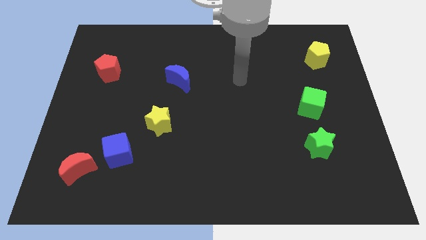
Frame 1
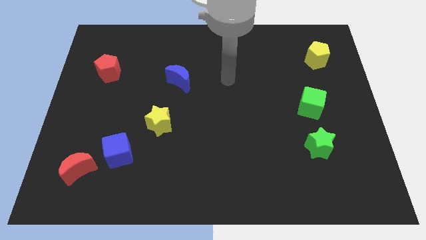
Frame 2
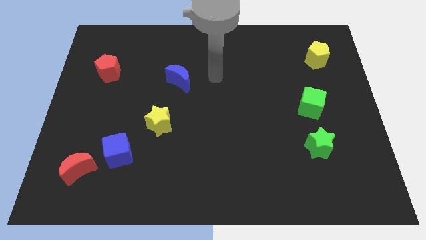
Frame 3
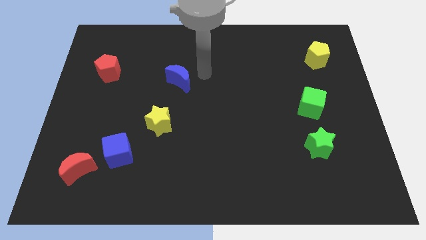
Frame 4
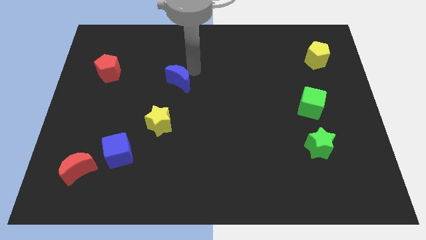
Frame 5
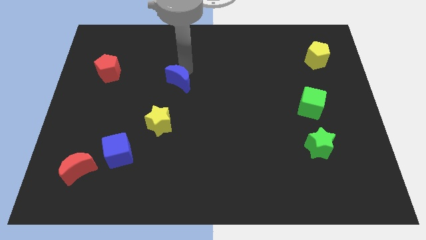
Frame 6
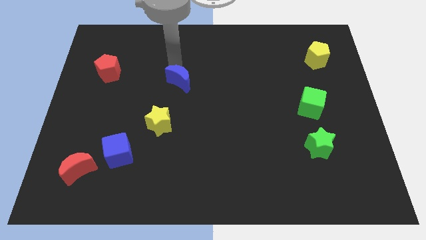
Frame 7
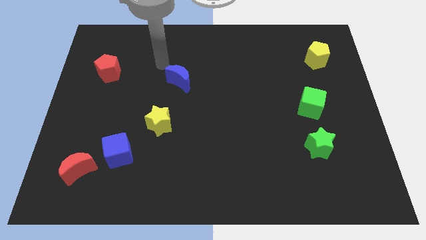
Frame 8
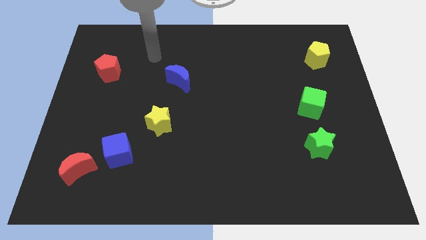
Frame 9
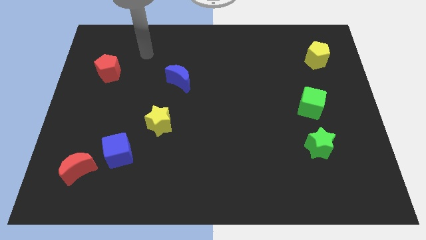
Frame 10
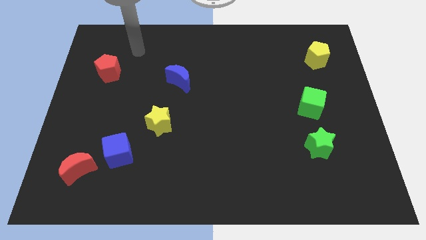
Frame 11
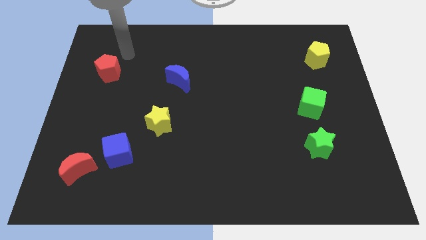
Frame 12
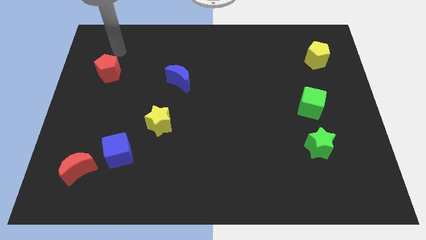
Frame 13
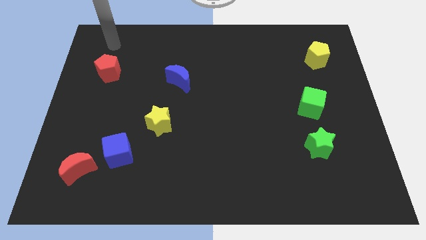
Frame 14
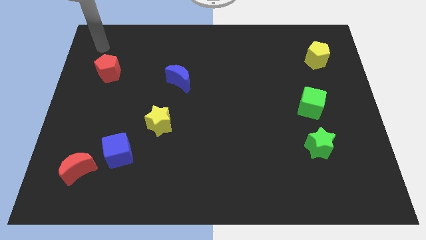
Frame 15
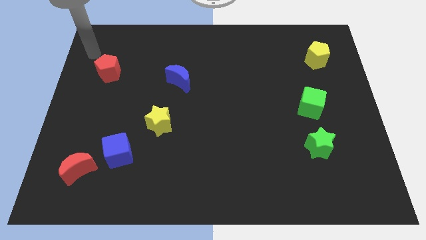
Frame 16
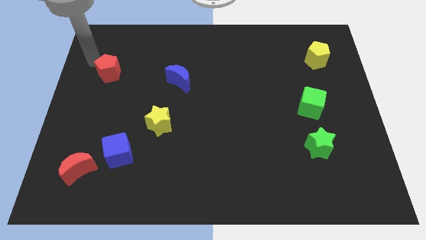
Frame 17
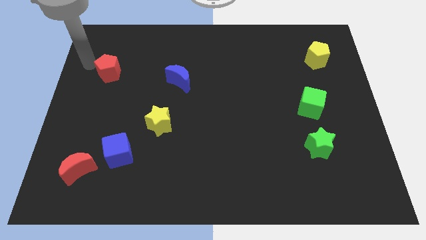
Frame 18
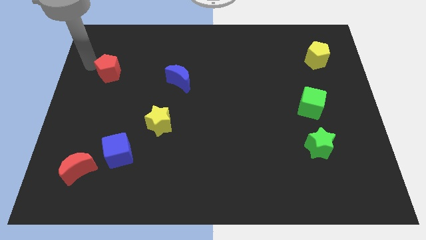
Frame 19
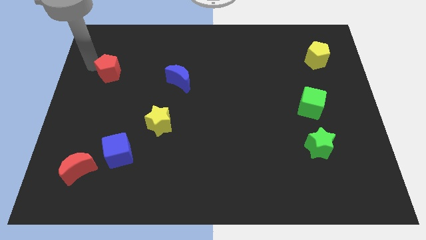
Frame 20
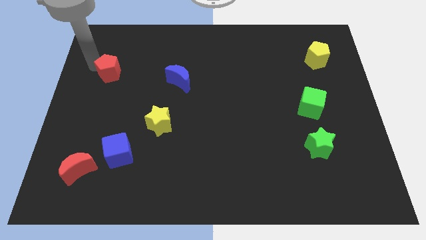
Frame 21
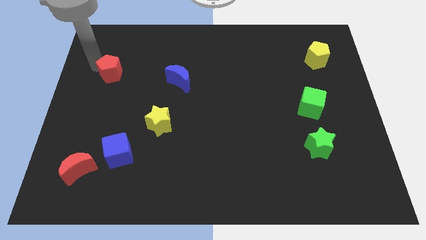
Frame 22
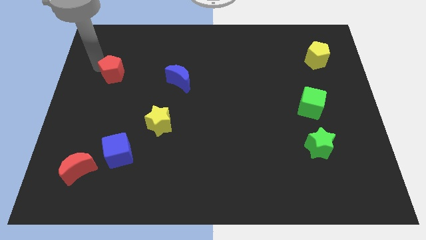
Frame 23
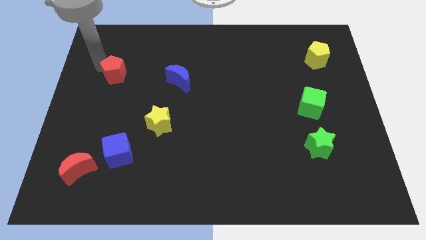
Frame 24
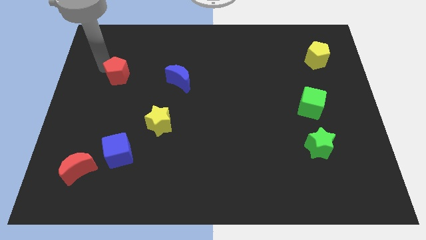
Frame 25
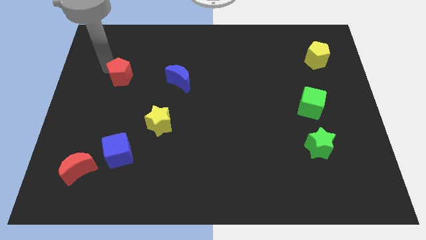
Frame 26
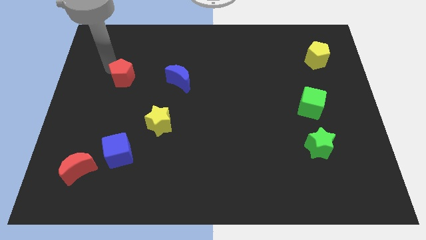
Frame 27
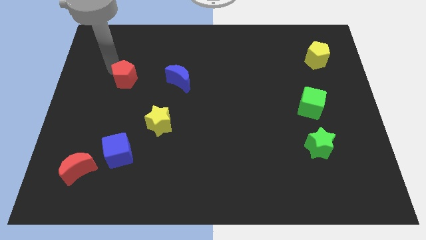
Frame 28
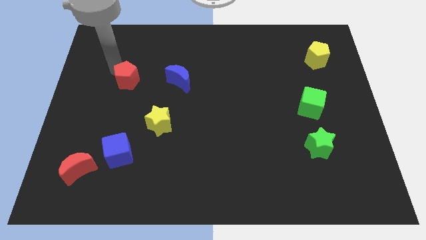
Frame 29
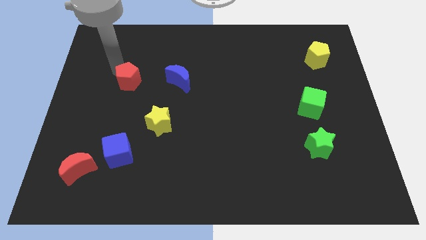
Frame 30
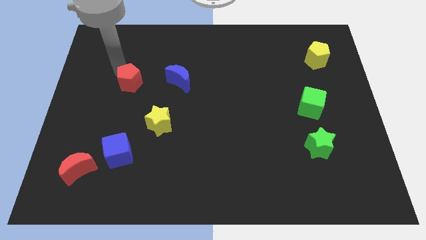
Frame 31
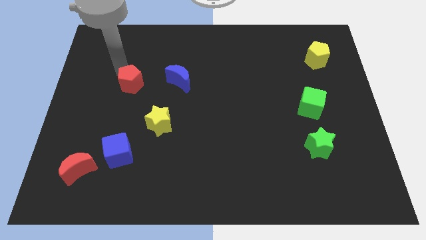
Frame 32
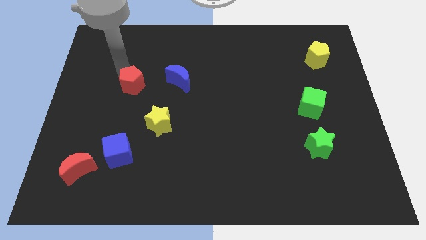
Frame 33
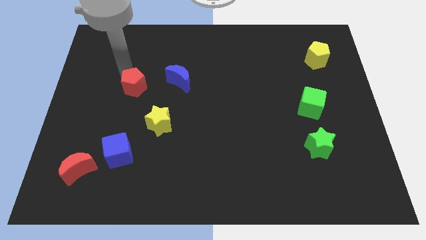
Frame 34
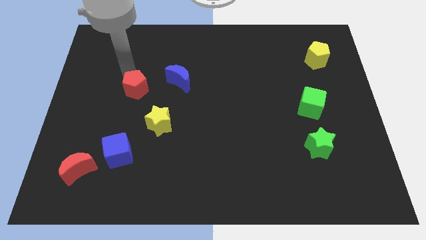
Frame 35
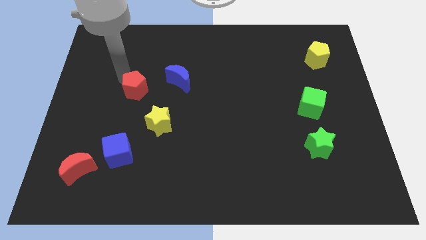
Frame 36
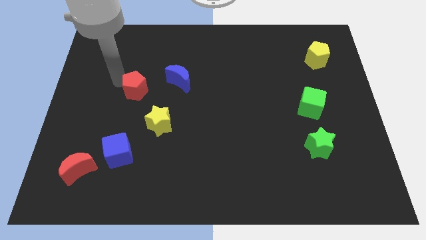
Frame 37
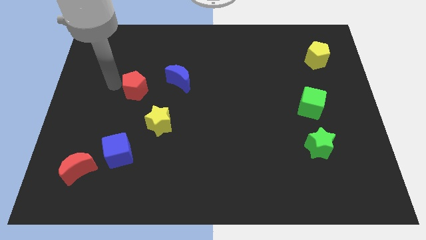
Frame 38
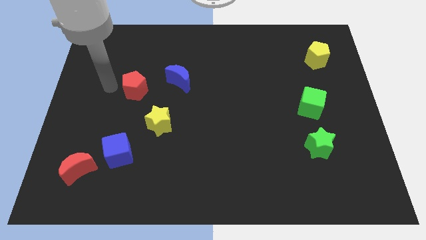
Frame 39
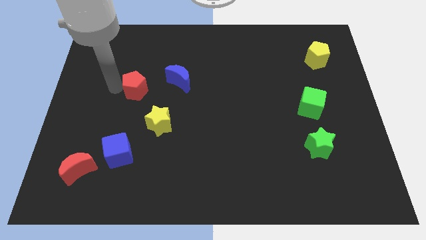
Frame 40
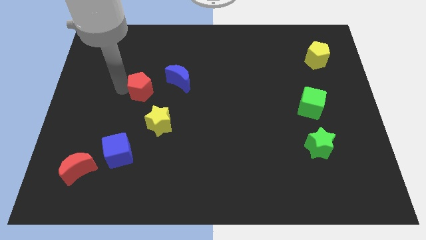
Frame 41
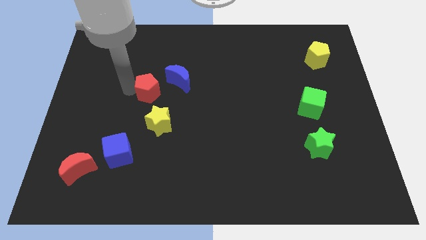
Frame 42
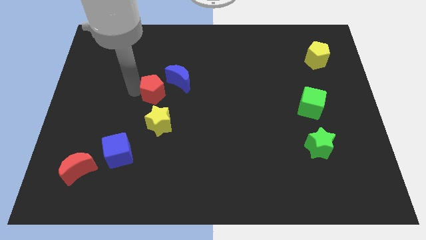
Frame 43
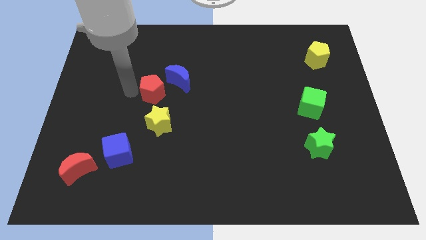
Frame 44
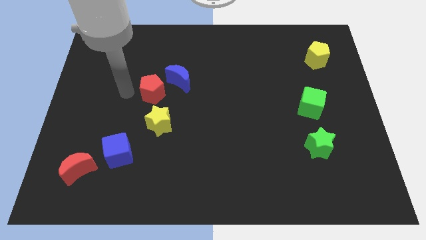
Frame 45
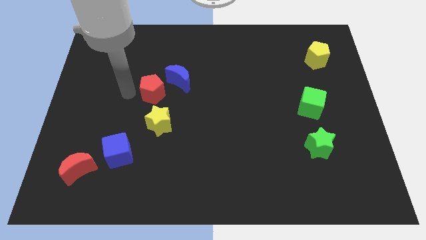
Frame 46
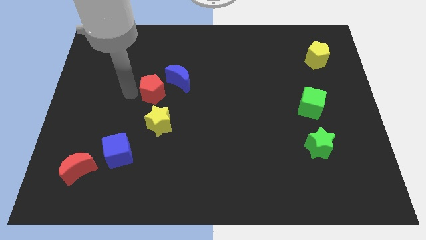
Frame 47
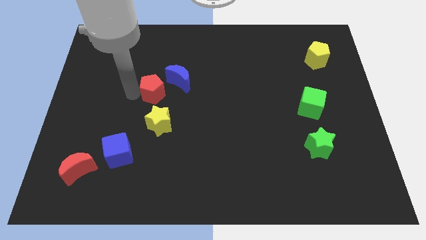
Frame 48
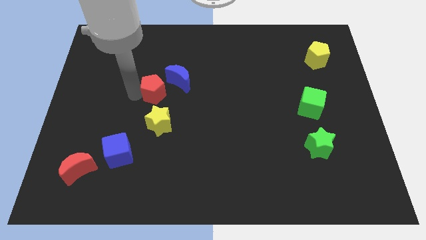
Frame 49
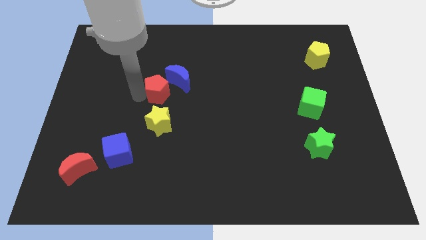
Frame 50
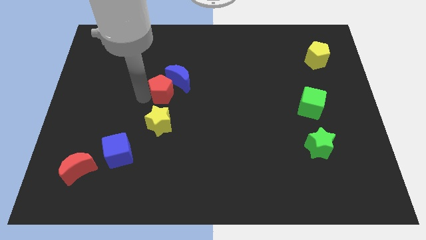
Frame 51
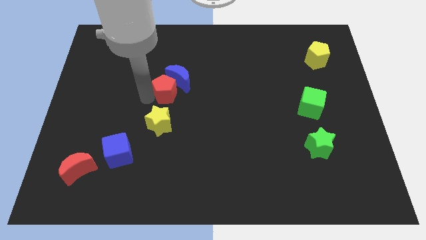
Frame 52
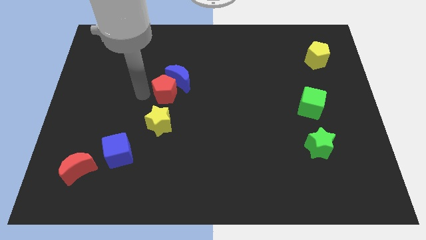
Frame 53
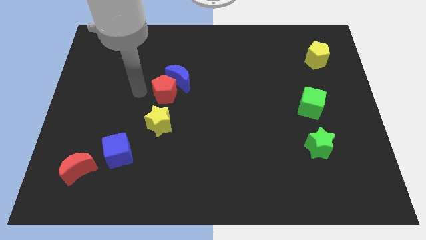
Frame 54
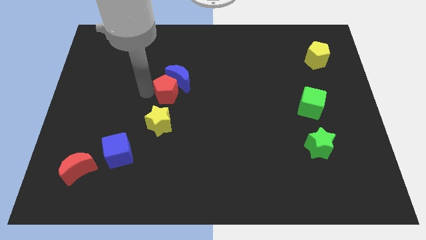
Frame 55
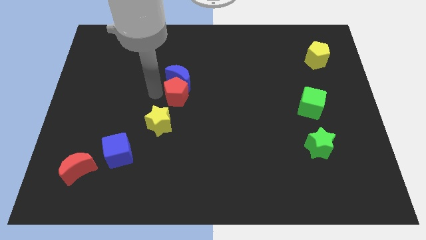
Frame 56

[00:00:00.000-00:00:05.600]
push the red pentagon to the bottom right side of the blue moon

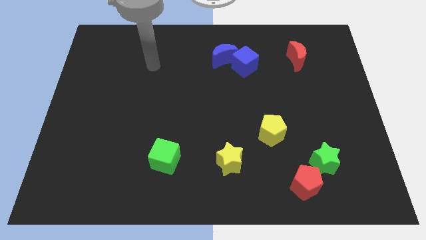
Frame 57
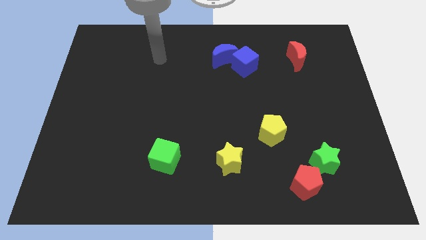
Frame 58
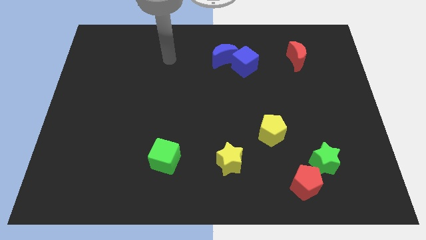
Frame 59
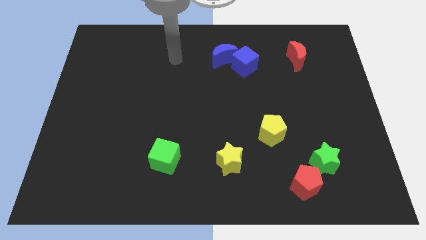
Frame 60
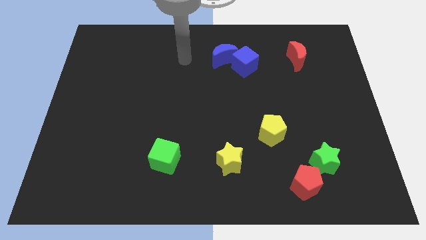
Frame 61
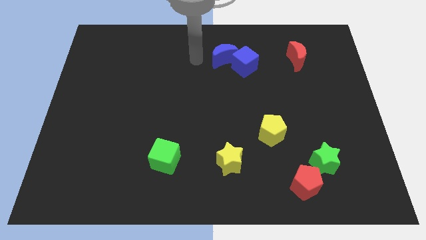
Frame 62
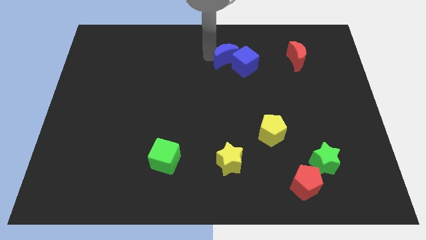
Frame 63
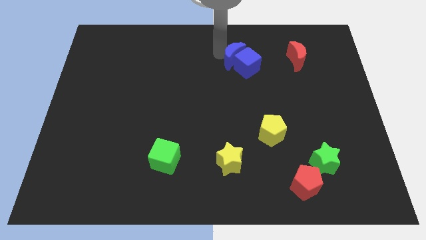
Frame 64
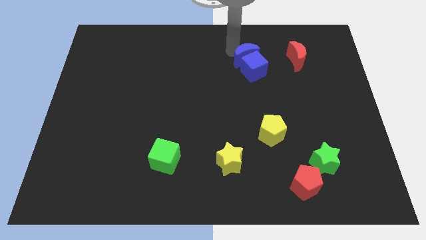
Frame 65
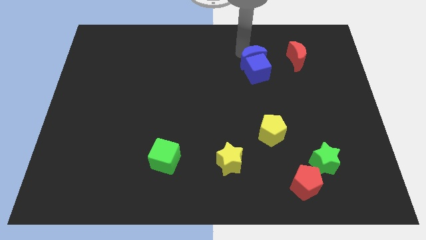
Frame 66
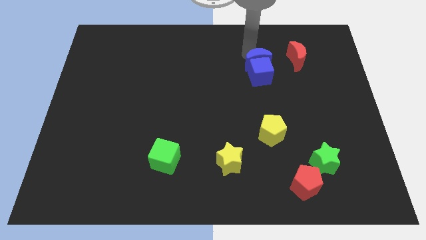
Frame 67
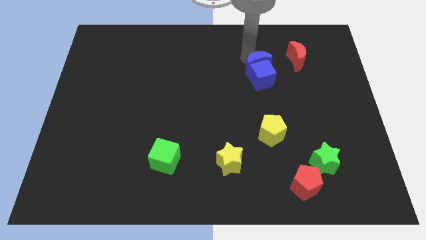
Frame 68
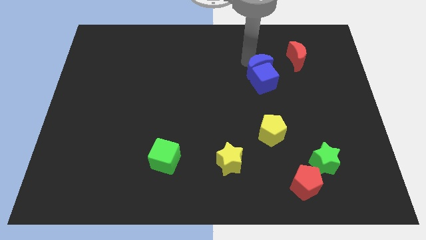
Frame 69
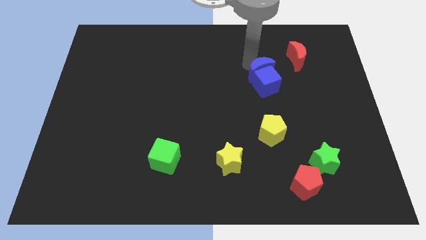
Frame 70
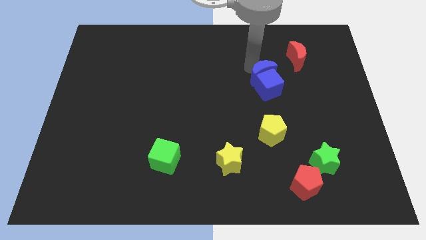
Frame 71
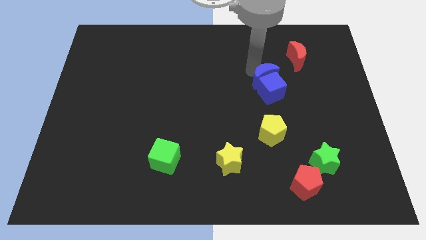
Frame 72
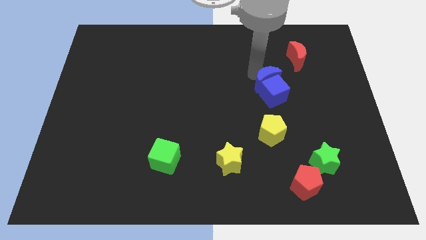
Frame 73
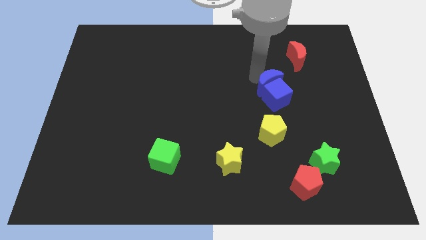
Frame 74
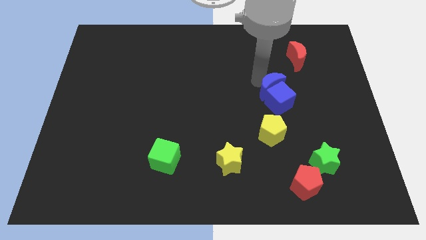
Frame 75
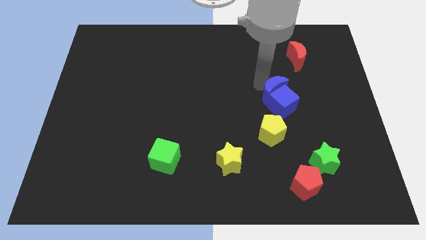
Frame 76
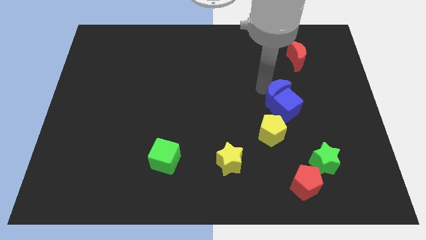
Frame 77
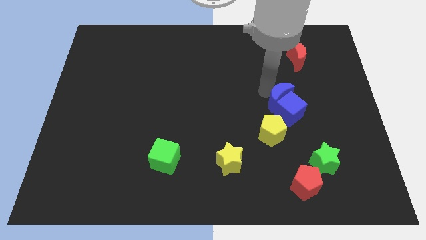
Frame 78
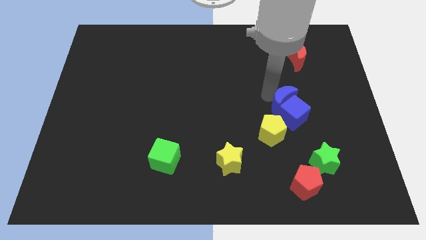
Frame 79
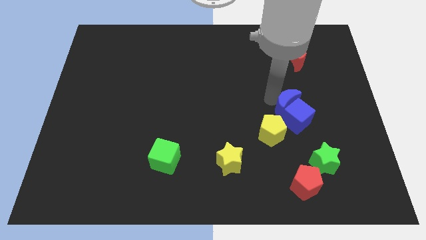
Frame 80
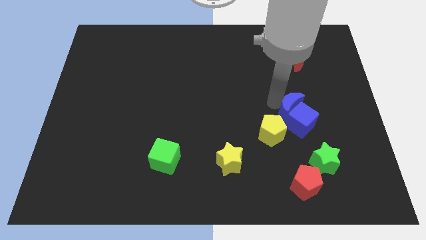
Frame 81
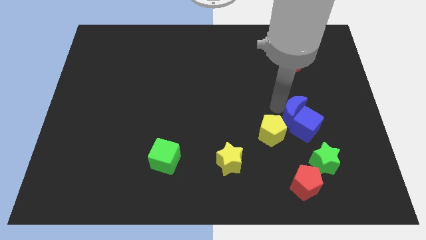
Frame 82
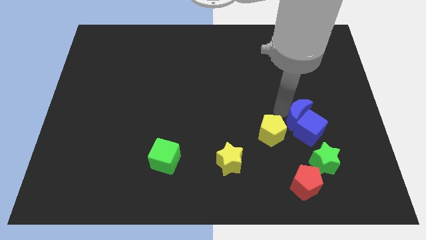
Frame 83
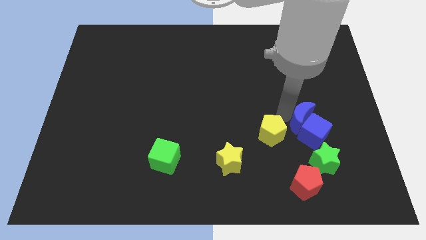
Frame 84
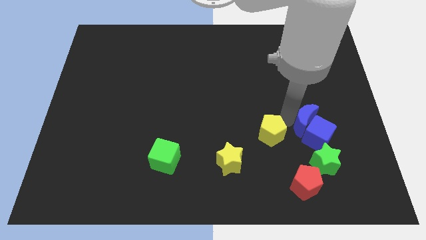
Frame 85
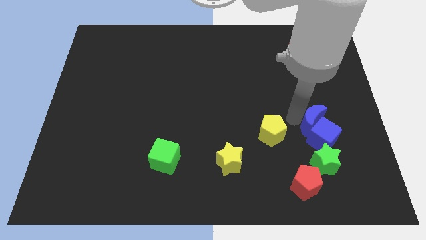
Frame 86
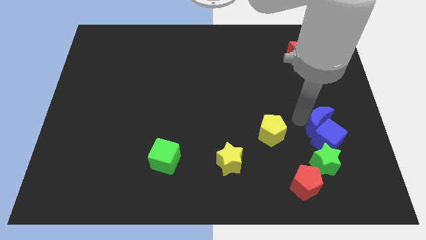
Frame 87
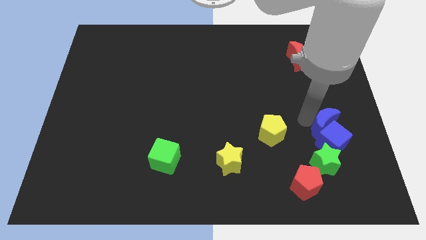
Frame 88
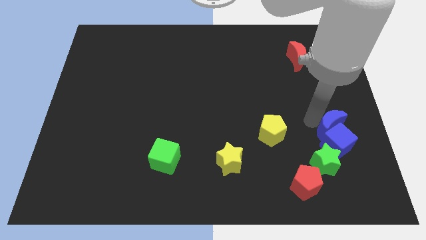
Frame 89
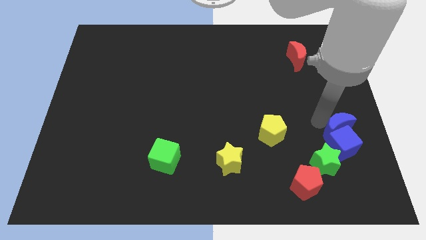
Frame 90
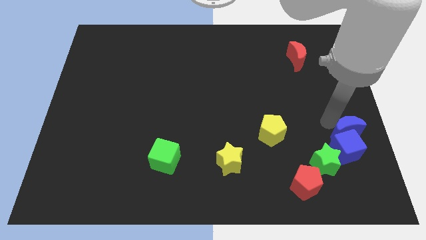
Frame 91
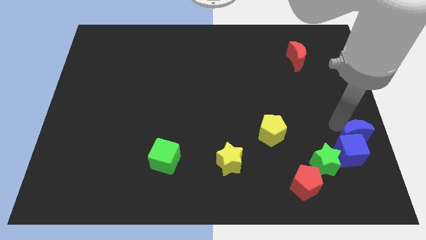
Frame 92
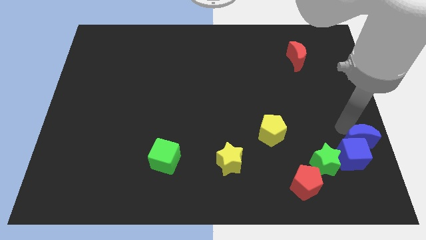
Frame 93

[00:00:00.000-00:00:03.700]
put the blue cube to the bottom right side of the green star
